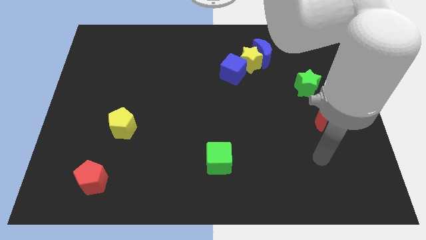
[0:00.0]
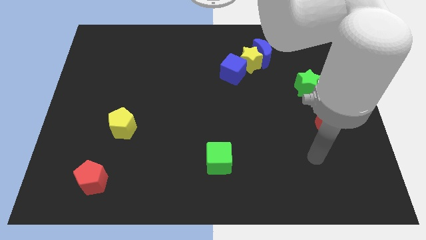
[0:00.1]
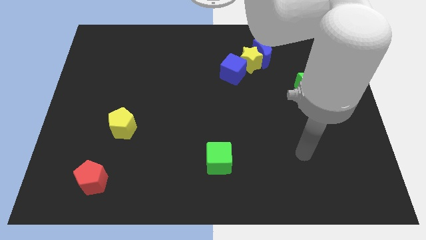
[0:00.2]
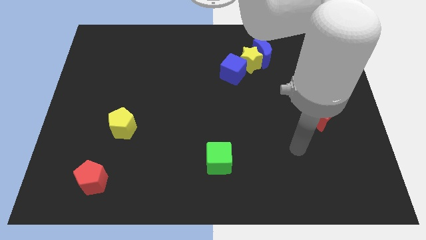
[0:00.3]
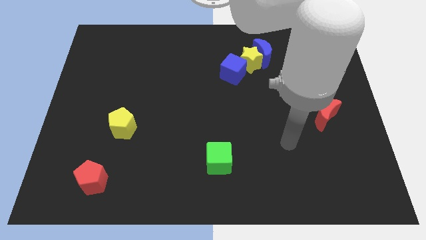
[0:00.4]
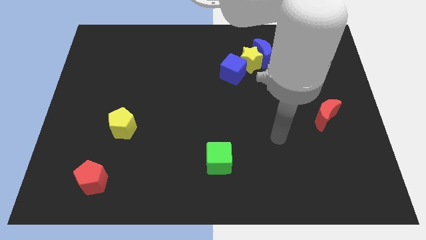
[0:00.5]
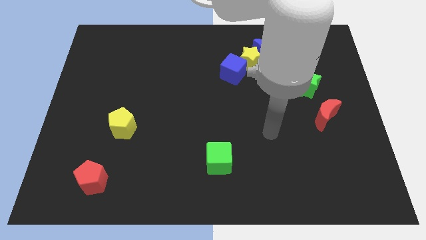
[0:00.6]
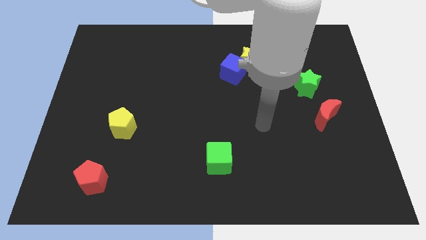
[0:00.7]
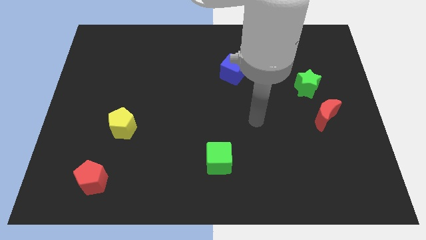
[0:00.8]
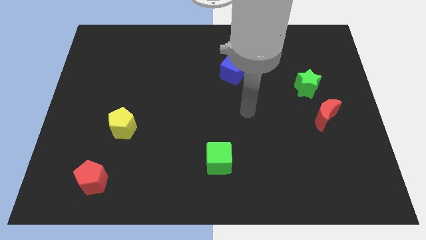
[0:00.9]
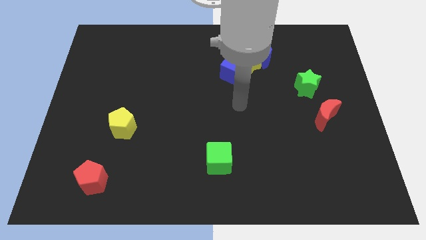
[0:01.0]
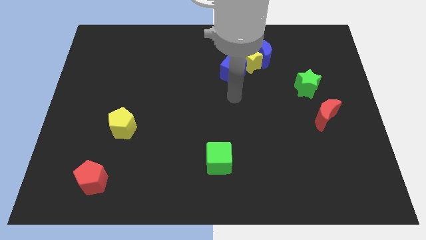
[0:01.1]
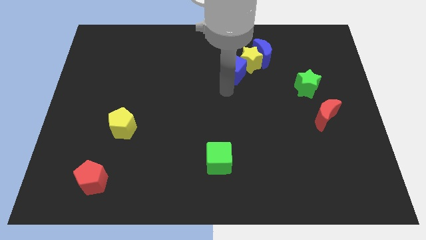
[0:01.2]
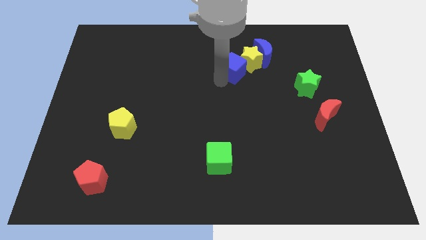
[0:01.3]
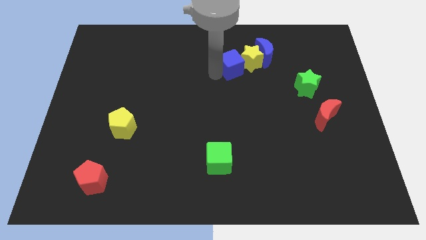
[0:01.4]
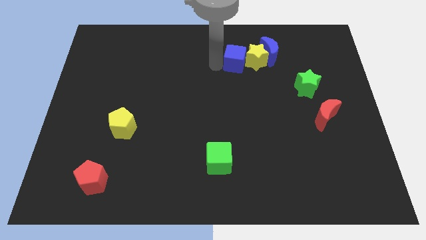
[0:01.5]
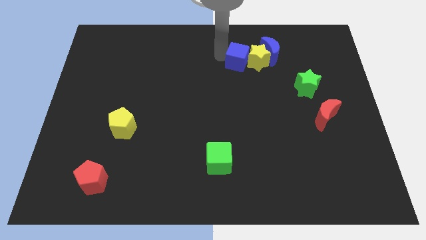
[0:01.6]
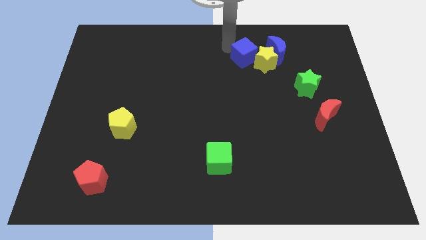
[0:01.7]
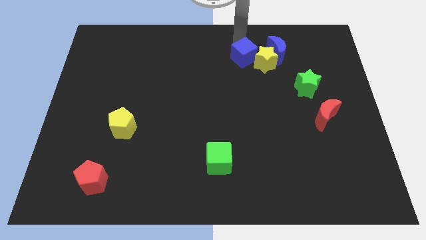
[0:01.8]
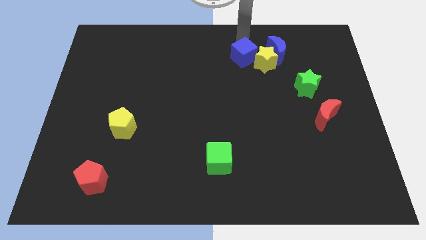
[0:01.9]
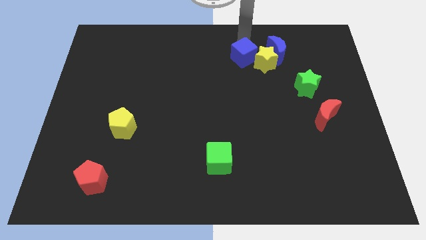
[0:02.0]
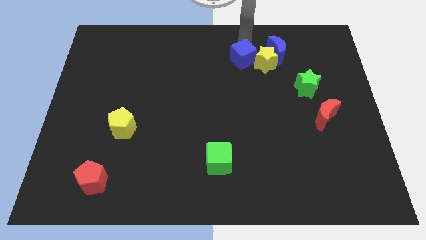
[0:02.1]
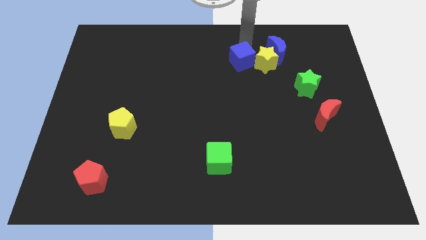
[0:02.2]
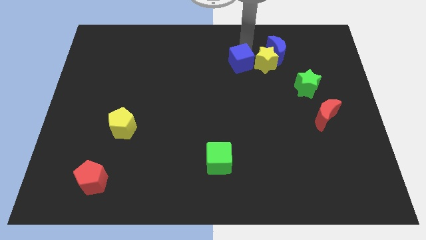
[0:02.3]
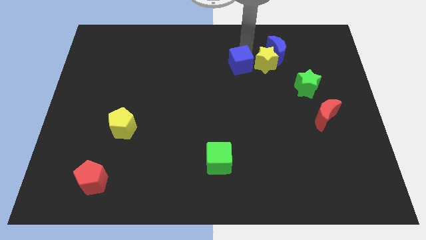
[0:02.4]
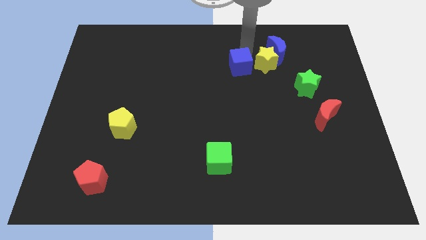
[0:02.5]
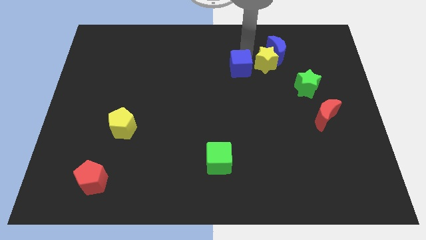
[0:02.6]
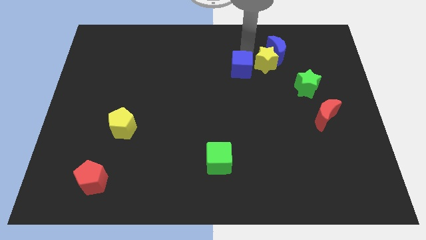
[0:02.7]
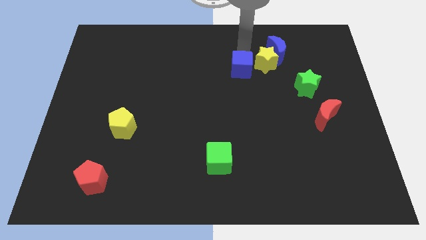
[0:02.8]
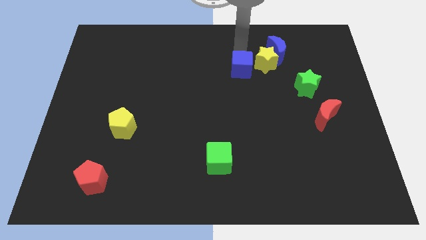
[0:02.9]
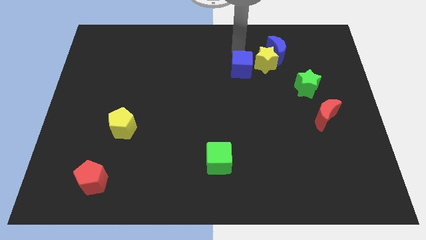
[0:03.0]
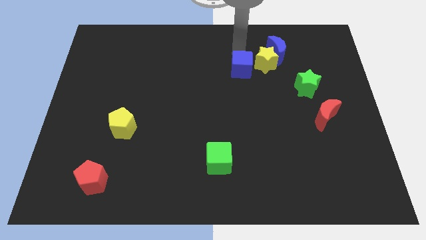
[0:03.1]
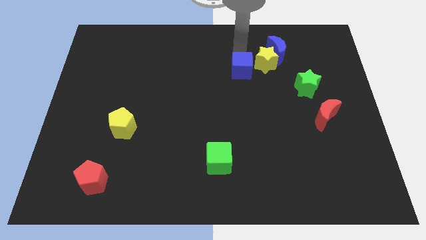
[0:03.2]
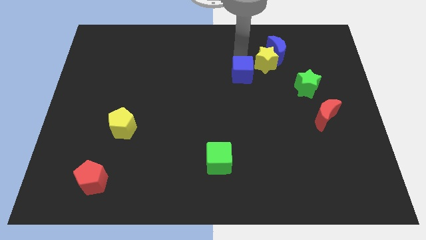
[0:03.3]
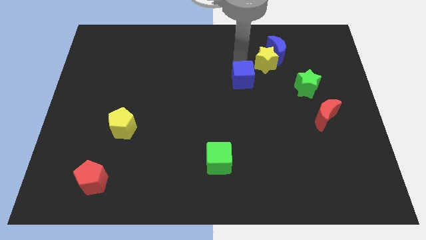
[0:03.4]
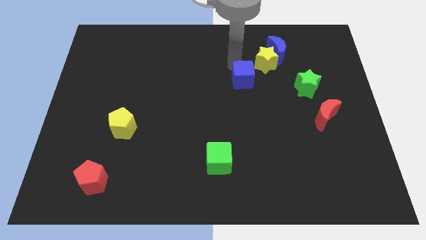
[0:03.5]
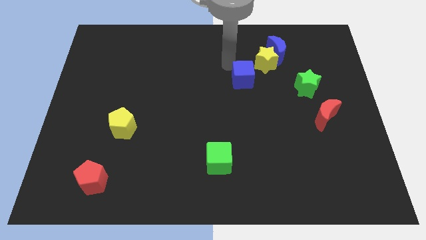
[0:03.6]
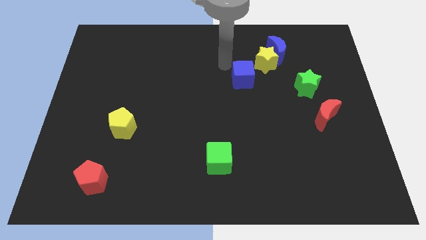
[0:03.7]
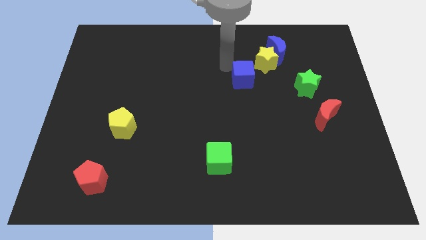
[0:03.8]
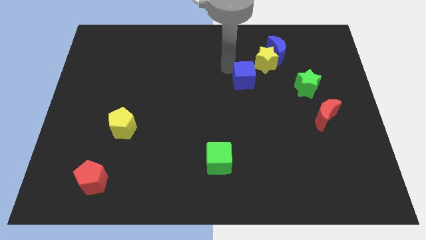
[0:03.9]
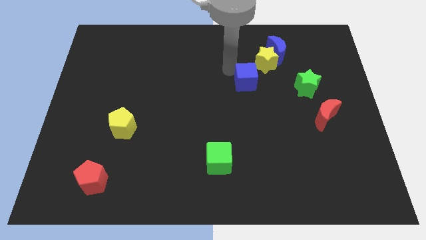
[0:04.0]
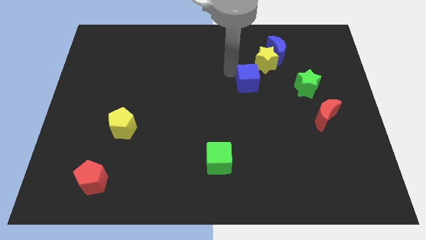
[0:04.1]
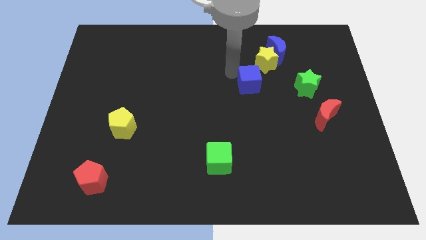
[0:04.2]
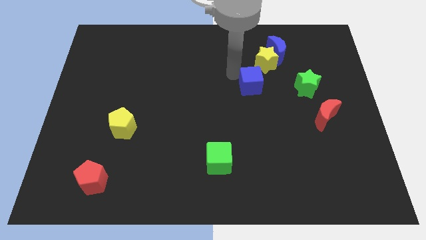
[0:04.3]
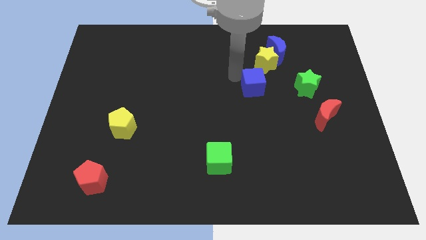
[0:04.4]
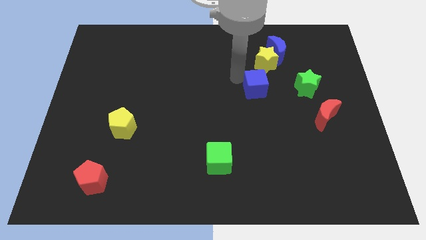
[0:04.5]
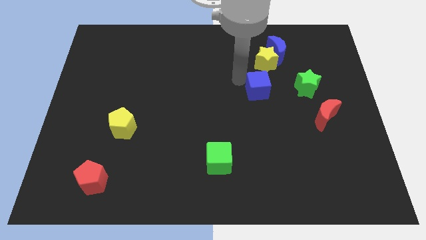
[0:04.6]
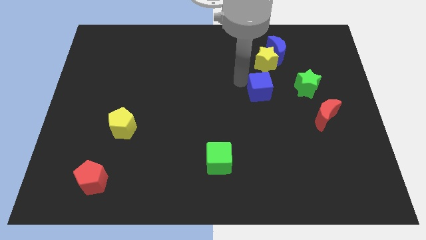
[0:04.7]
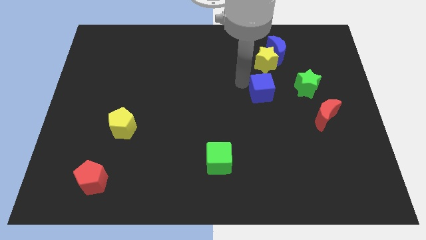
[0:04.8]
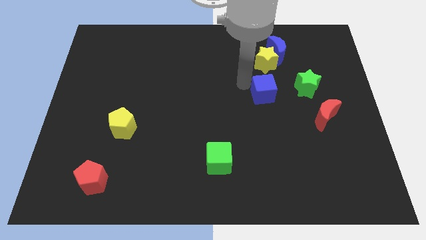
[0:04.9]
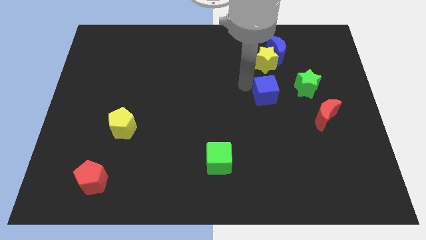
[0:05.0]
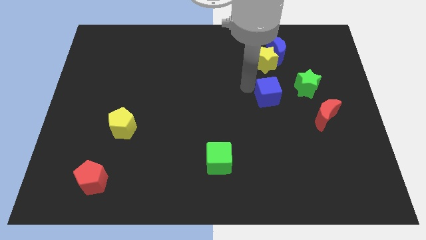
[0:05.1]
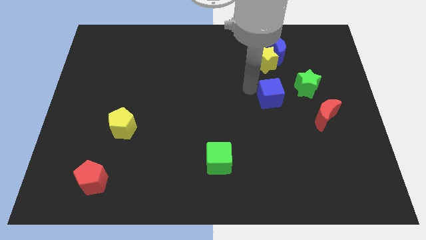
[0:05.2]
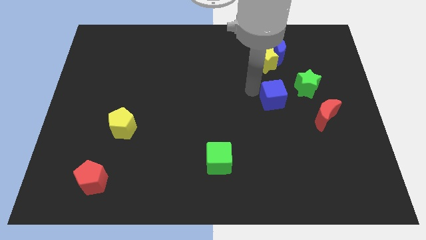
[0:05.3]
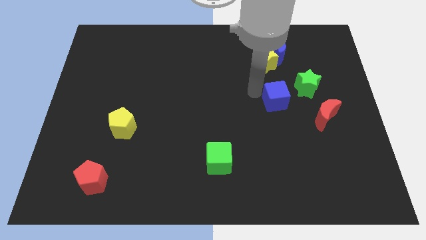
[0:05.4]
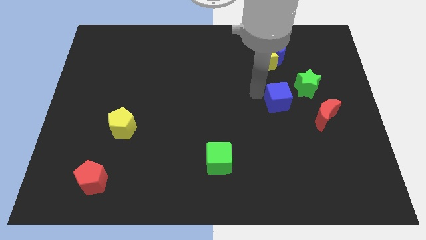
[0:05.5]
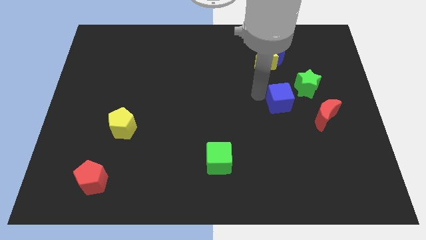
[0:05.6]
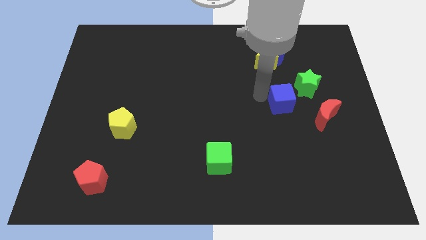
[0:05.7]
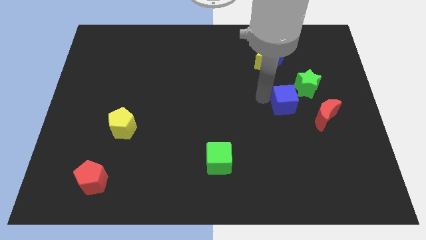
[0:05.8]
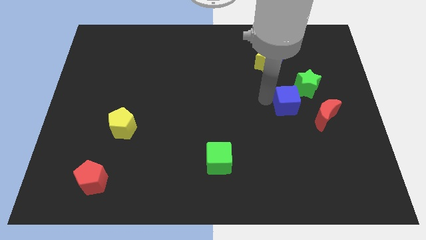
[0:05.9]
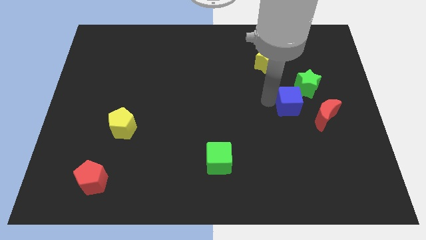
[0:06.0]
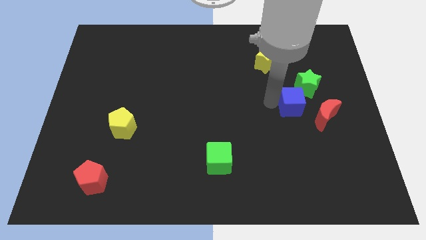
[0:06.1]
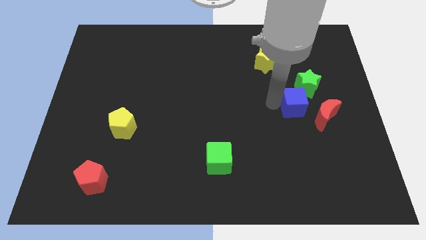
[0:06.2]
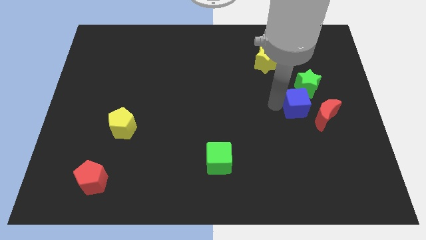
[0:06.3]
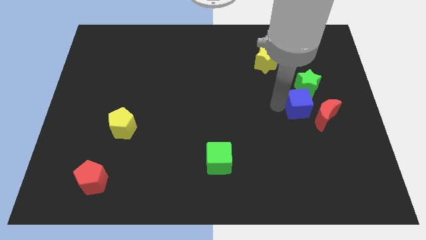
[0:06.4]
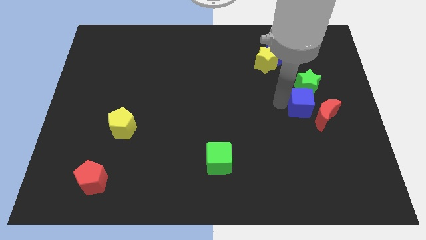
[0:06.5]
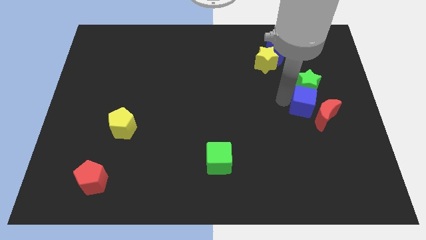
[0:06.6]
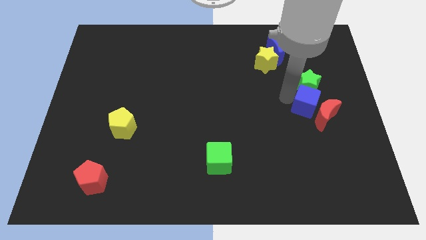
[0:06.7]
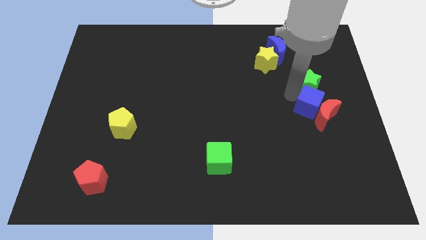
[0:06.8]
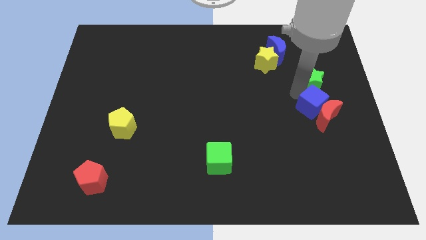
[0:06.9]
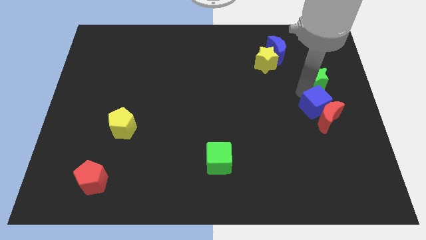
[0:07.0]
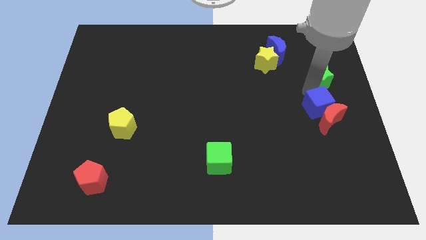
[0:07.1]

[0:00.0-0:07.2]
move the blue cube diagonally downwards and to the right

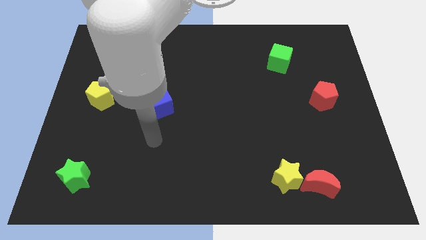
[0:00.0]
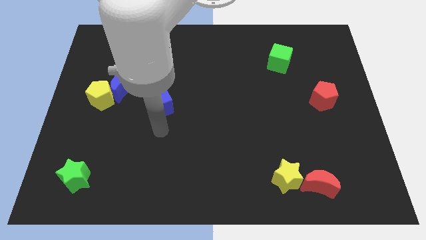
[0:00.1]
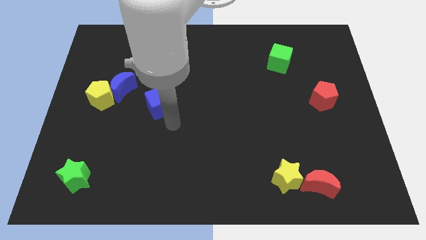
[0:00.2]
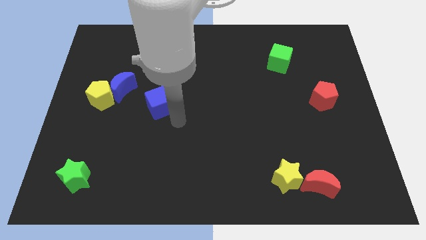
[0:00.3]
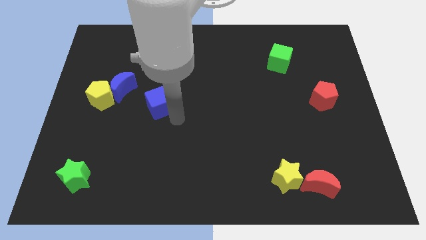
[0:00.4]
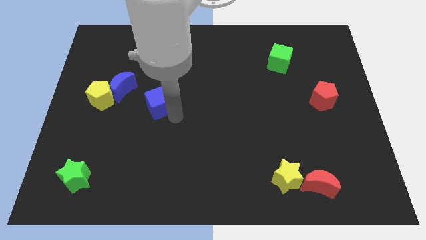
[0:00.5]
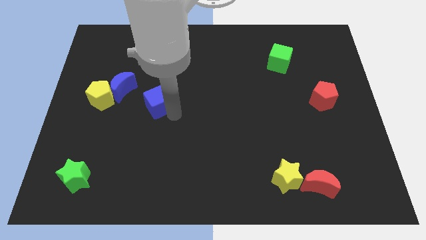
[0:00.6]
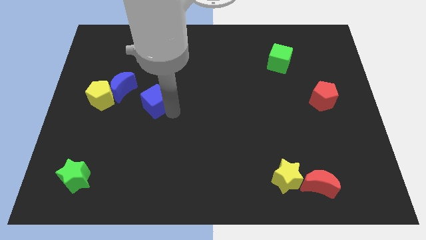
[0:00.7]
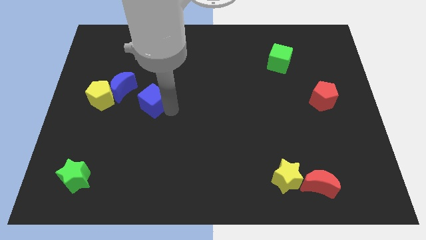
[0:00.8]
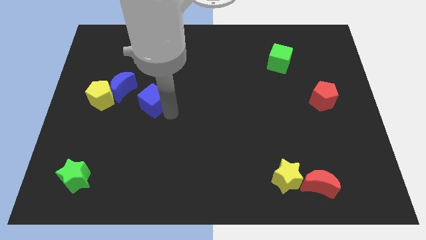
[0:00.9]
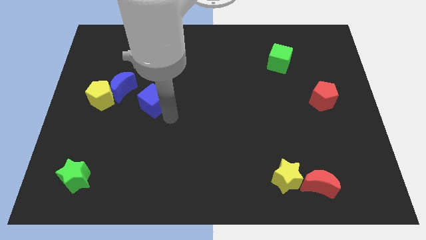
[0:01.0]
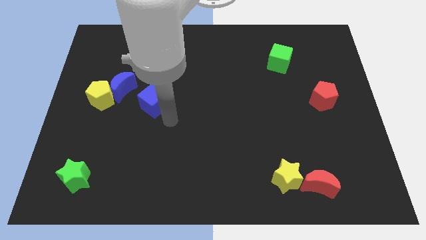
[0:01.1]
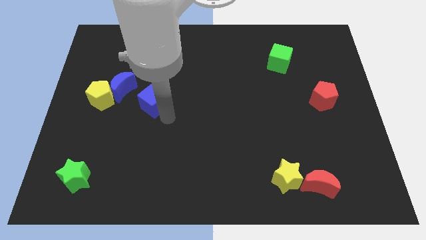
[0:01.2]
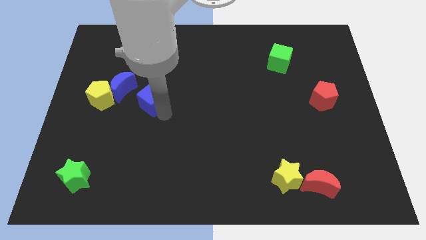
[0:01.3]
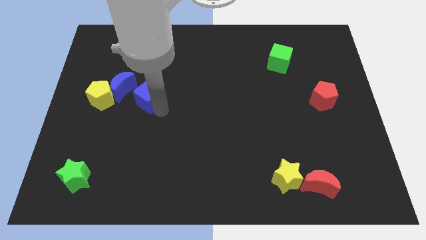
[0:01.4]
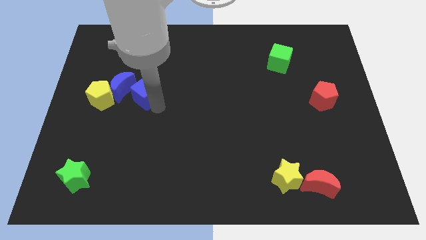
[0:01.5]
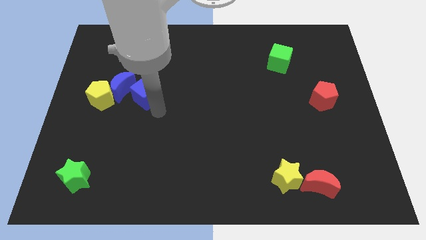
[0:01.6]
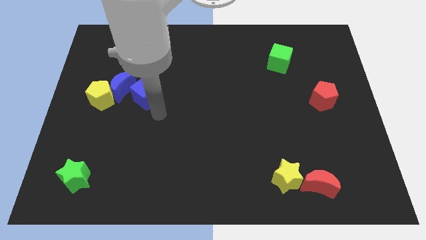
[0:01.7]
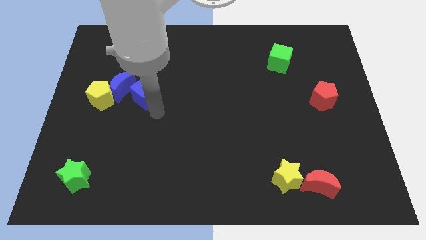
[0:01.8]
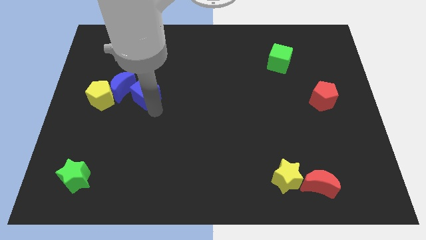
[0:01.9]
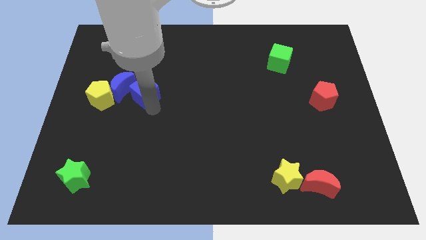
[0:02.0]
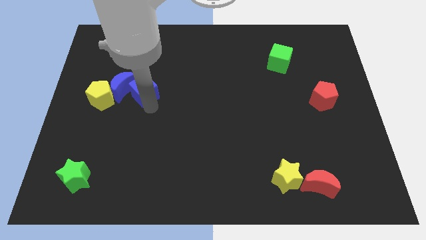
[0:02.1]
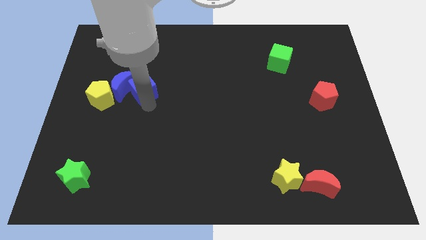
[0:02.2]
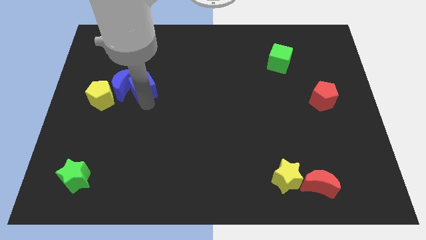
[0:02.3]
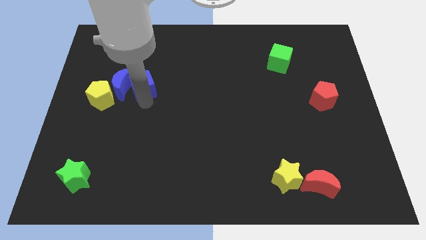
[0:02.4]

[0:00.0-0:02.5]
move the blue cube slightly diagonally upwards and to the left
